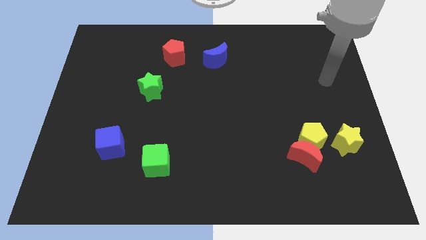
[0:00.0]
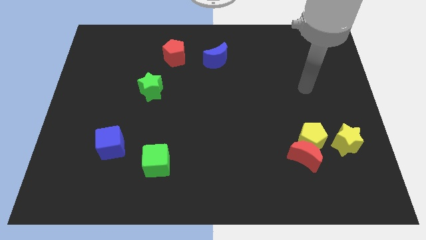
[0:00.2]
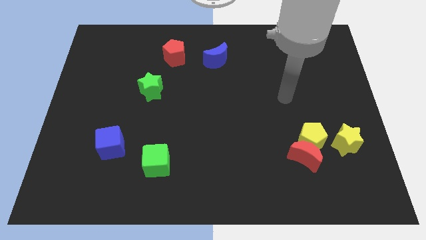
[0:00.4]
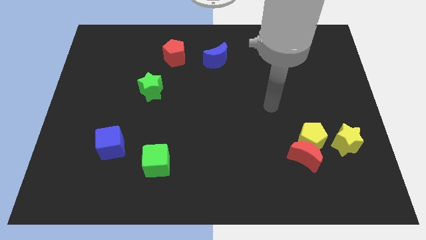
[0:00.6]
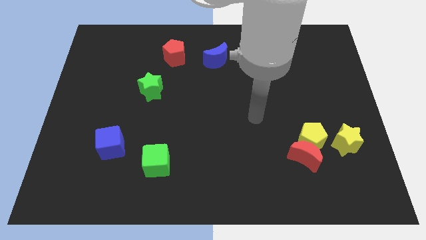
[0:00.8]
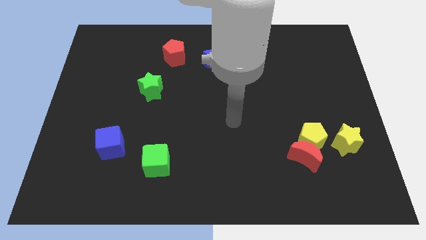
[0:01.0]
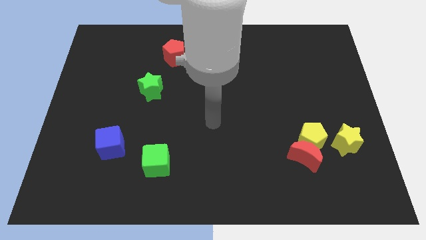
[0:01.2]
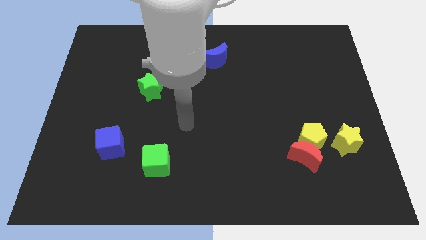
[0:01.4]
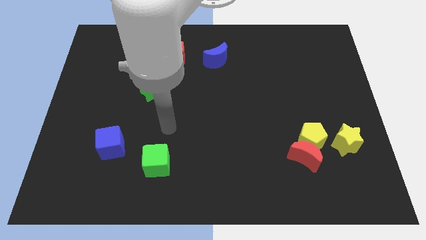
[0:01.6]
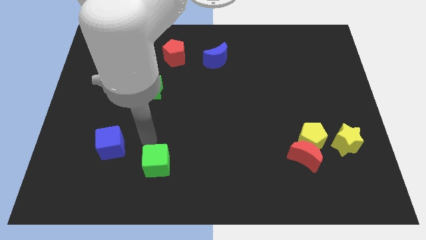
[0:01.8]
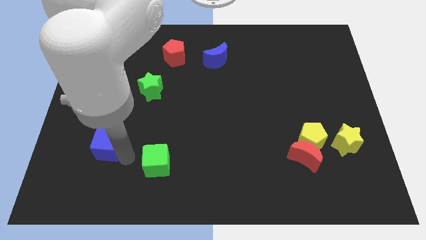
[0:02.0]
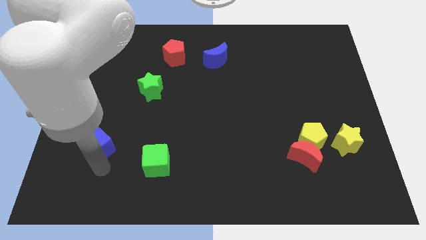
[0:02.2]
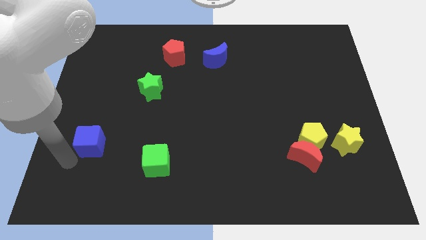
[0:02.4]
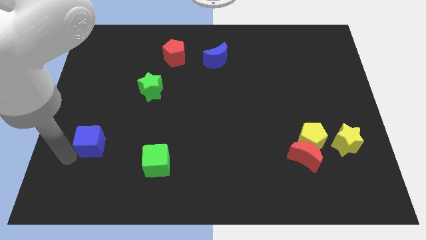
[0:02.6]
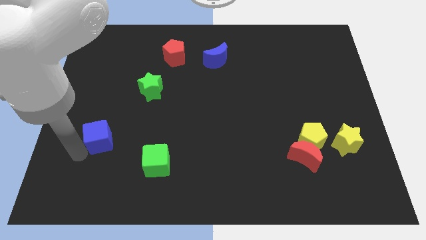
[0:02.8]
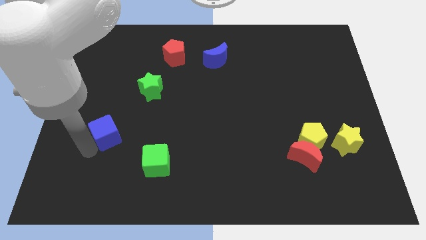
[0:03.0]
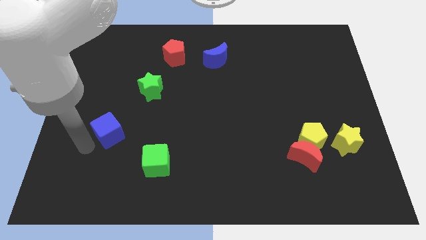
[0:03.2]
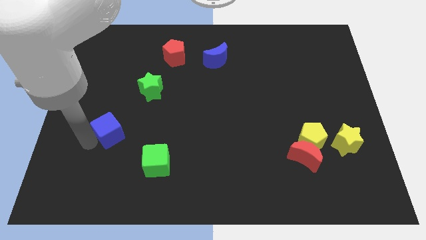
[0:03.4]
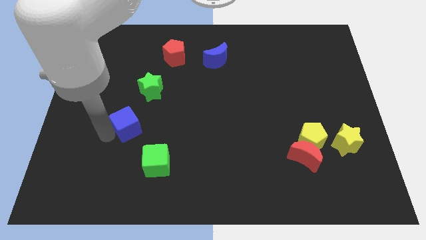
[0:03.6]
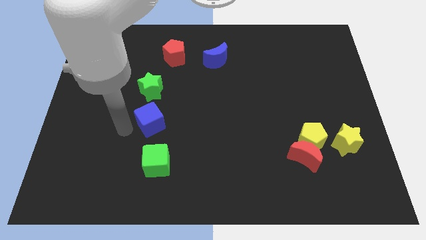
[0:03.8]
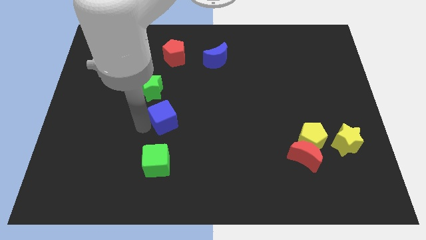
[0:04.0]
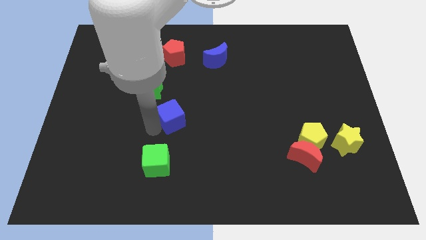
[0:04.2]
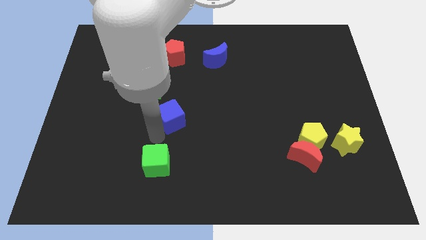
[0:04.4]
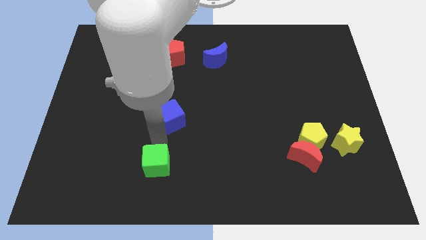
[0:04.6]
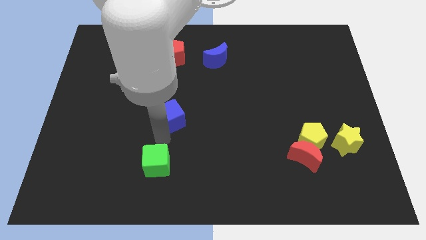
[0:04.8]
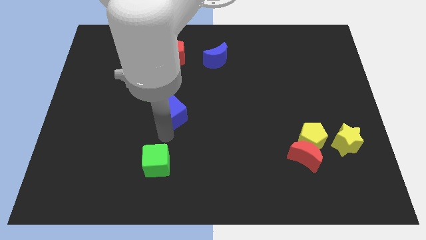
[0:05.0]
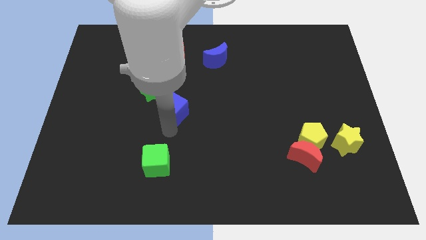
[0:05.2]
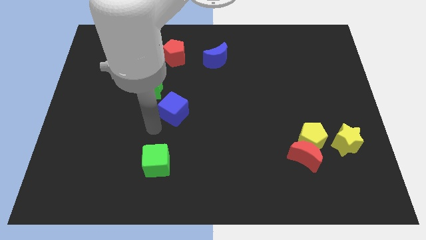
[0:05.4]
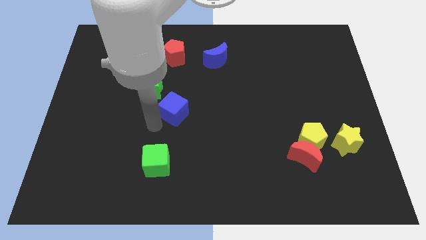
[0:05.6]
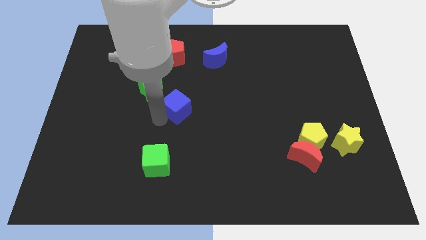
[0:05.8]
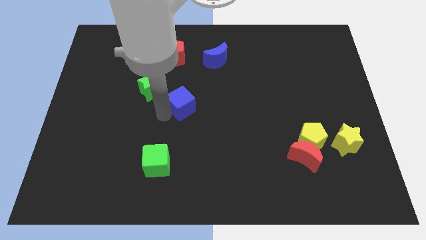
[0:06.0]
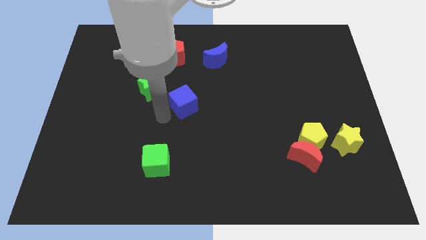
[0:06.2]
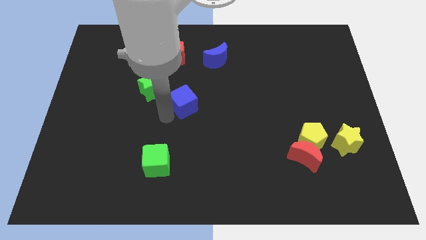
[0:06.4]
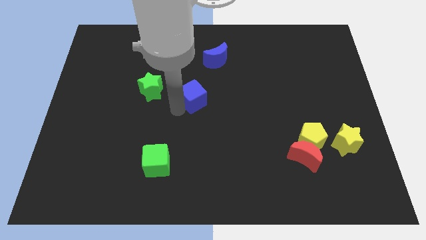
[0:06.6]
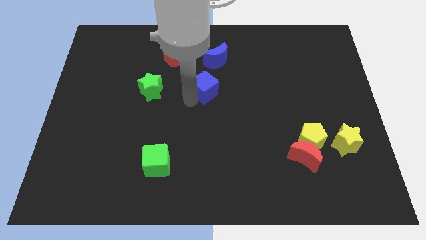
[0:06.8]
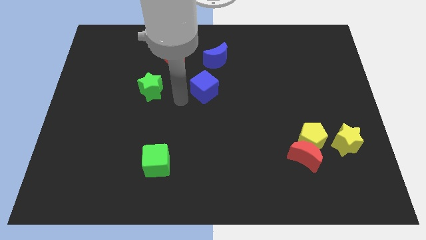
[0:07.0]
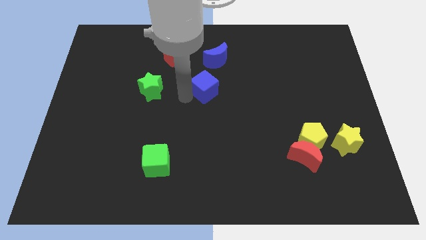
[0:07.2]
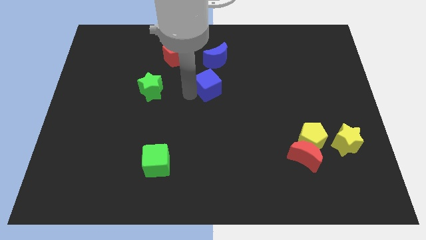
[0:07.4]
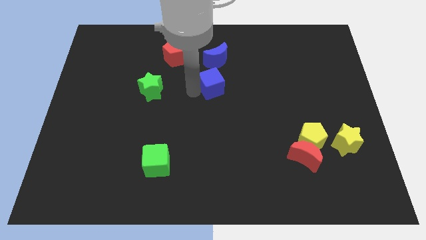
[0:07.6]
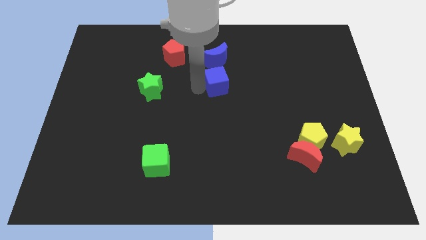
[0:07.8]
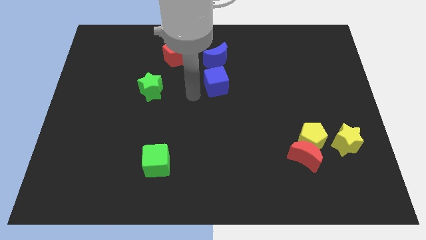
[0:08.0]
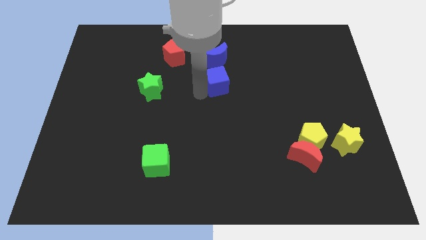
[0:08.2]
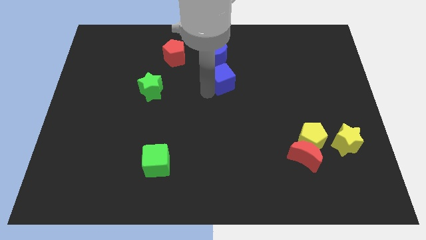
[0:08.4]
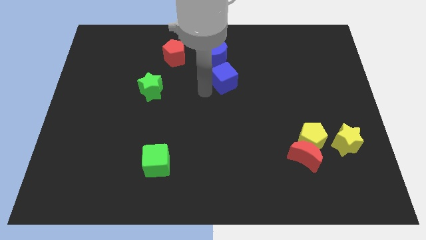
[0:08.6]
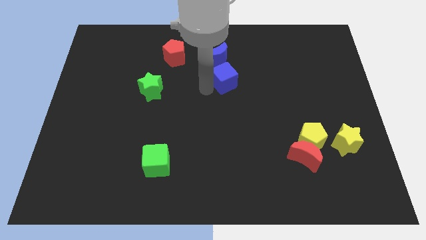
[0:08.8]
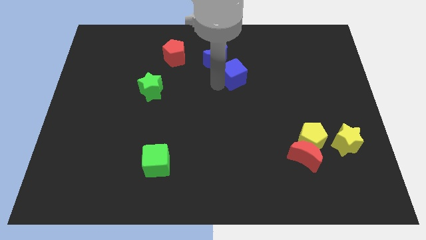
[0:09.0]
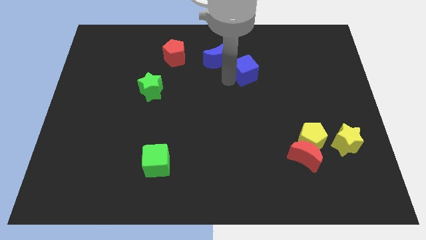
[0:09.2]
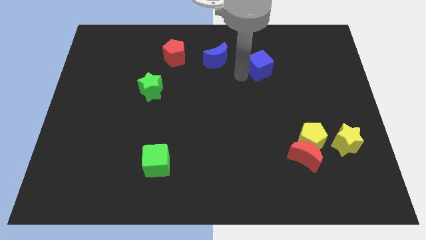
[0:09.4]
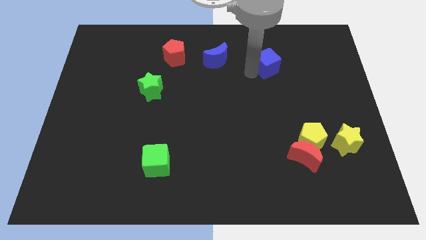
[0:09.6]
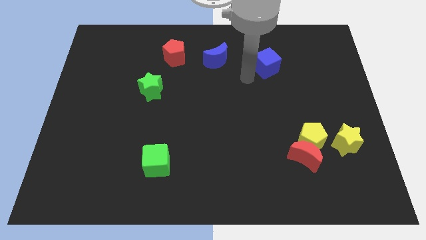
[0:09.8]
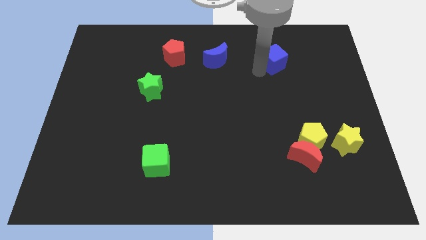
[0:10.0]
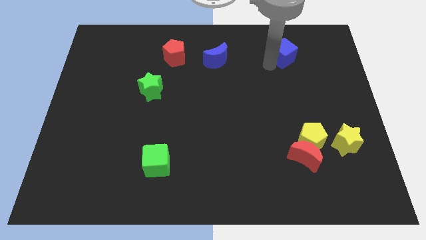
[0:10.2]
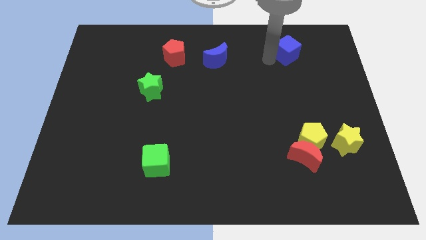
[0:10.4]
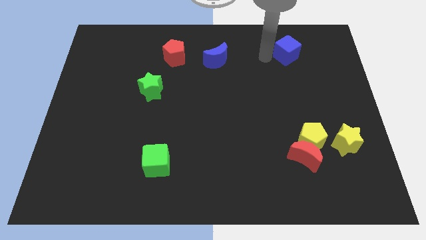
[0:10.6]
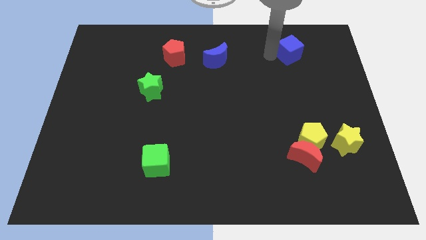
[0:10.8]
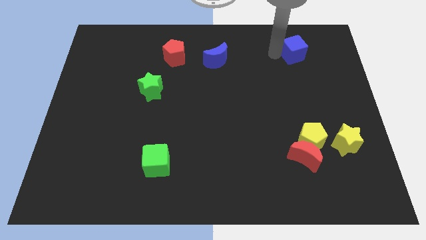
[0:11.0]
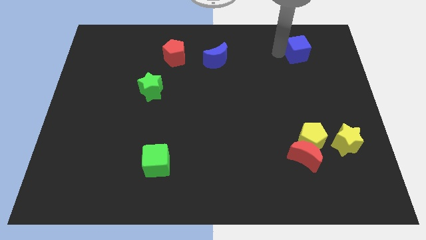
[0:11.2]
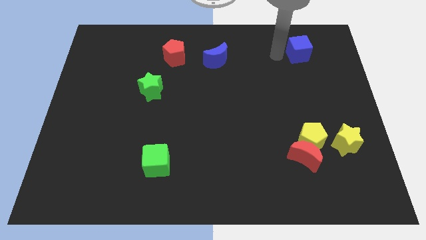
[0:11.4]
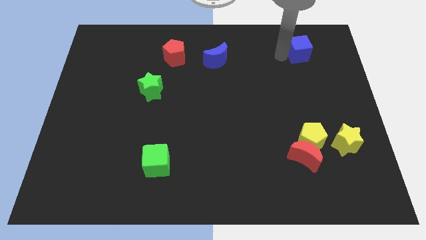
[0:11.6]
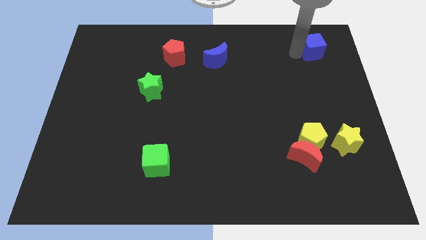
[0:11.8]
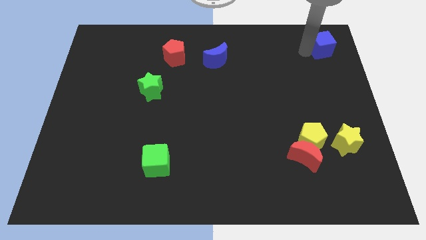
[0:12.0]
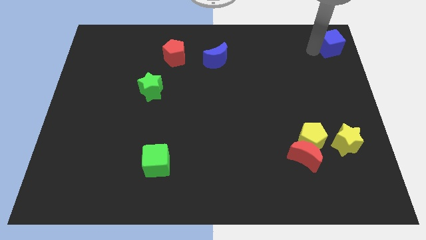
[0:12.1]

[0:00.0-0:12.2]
slide the blue cube to the top right corner
